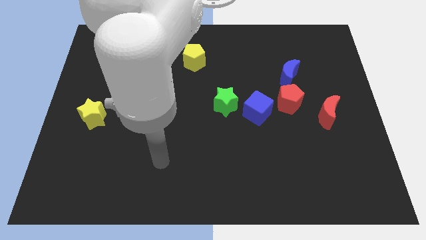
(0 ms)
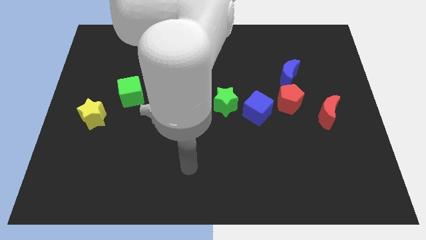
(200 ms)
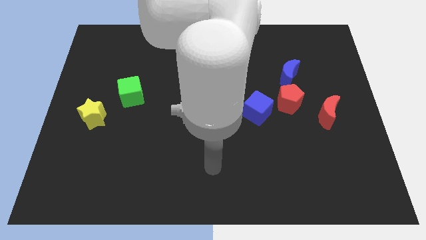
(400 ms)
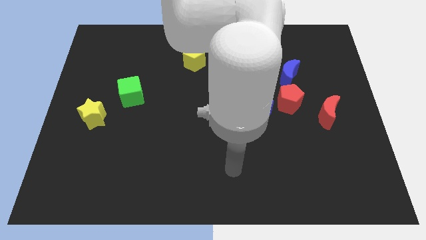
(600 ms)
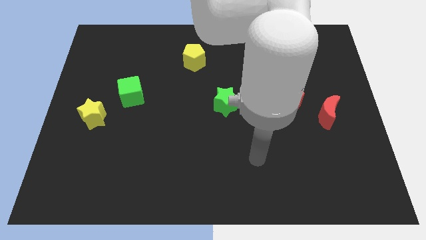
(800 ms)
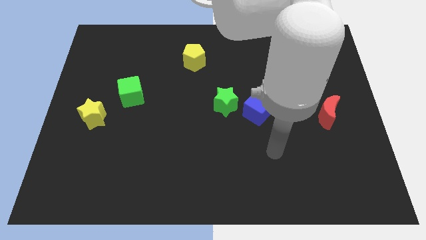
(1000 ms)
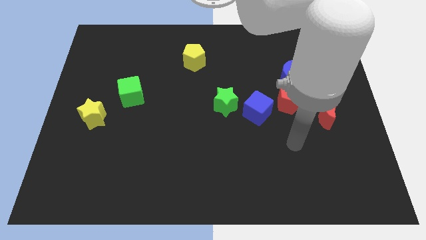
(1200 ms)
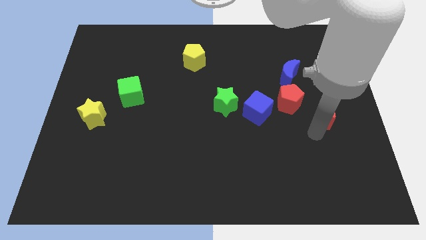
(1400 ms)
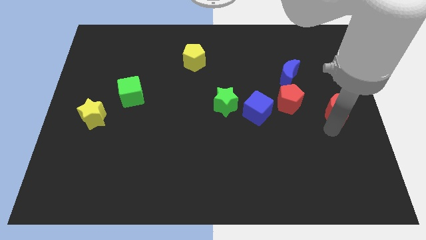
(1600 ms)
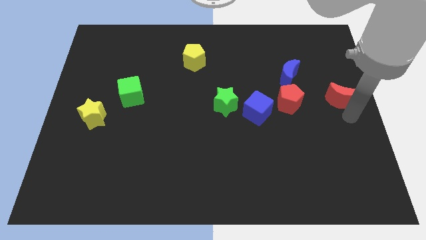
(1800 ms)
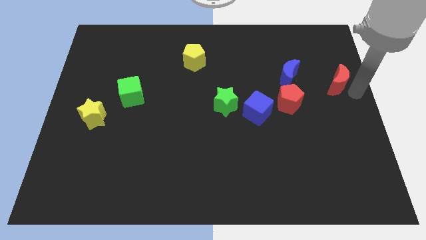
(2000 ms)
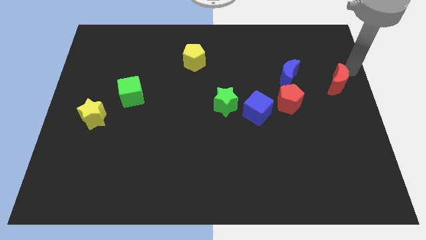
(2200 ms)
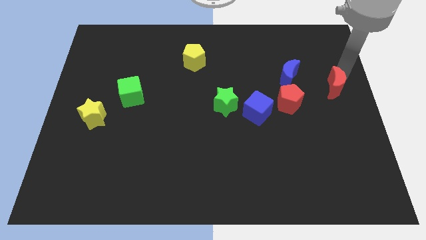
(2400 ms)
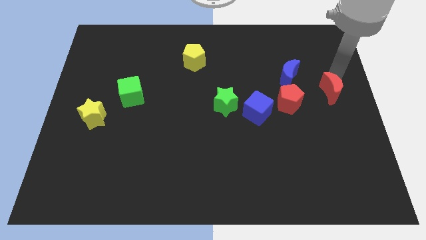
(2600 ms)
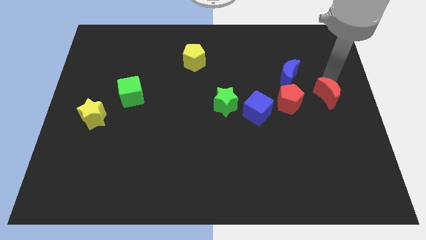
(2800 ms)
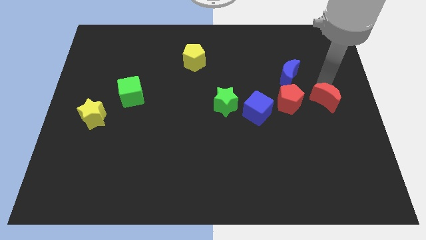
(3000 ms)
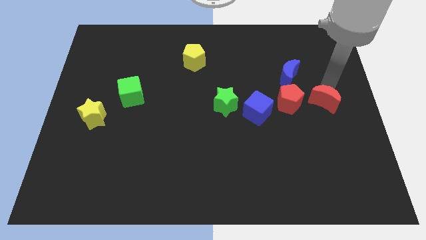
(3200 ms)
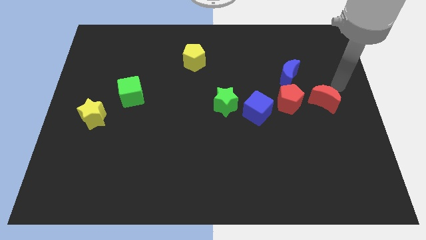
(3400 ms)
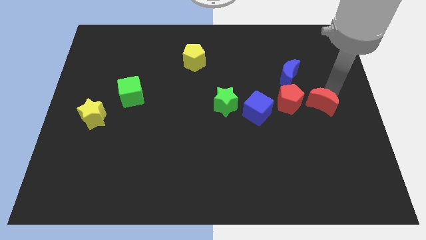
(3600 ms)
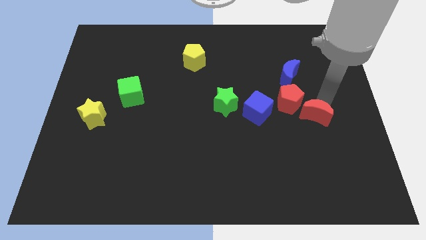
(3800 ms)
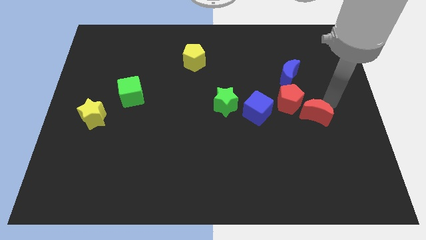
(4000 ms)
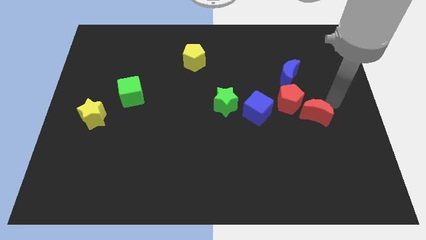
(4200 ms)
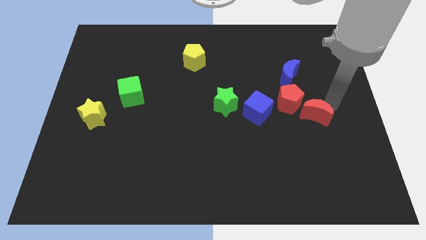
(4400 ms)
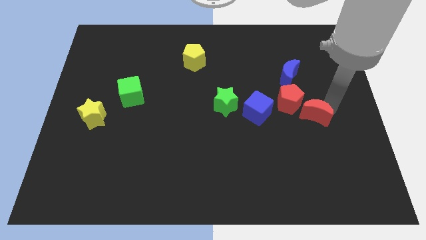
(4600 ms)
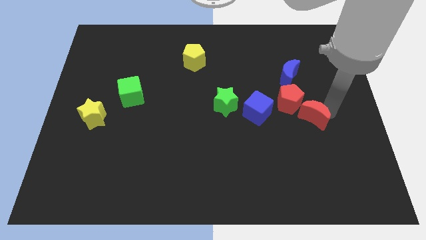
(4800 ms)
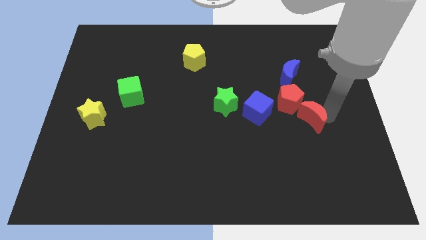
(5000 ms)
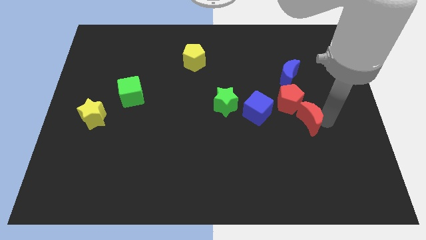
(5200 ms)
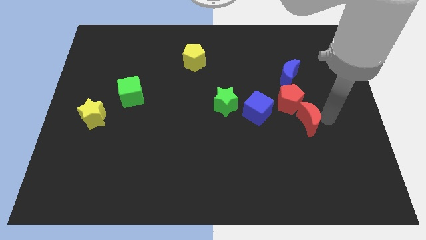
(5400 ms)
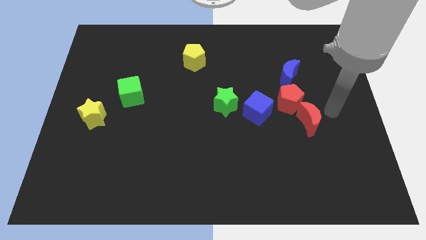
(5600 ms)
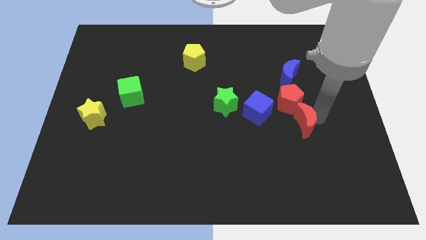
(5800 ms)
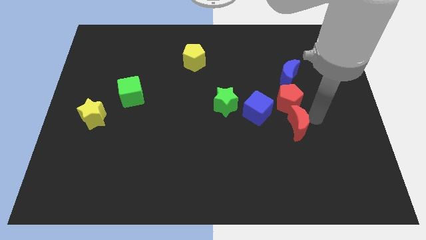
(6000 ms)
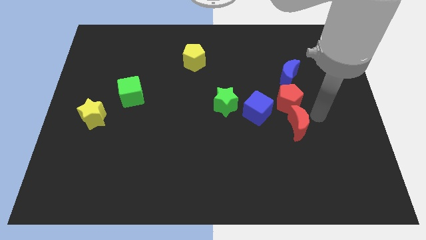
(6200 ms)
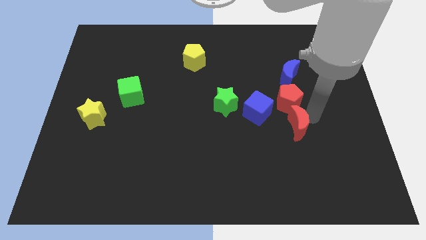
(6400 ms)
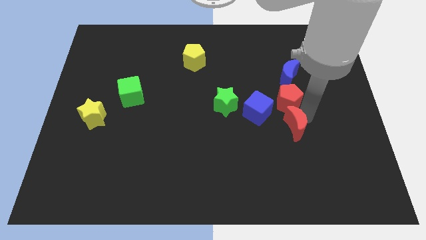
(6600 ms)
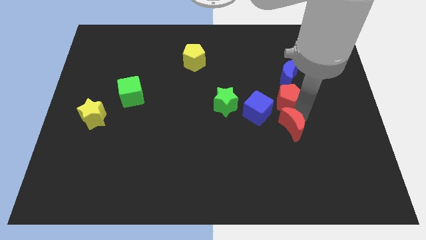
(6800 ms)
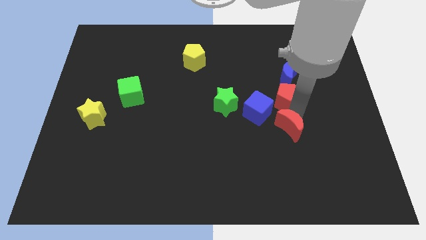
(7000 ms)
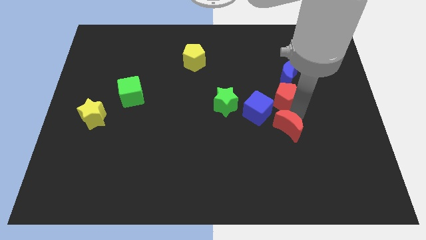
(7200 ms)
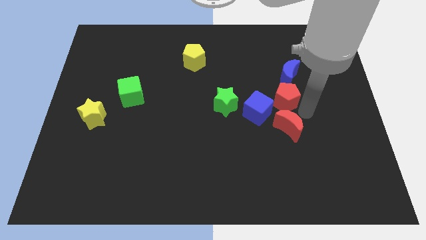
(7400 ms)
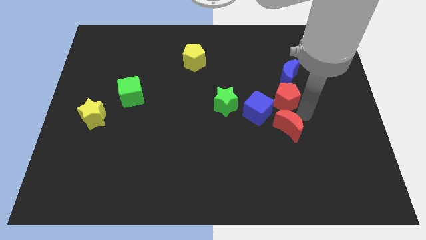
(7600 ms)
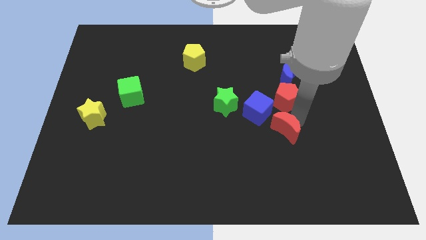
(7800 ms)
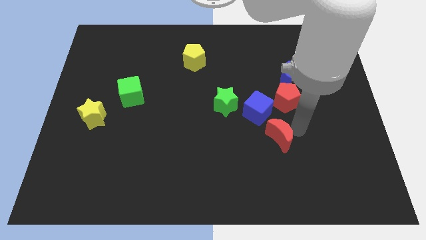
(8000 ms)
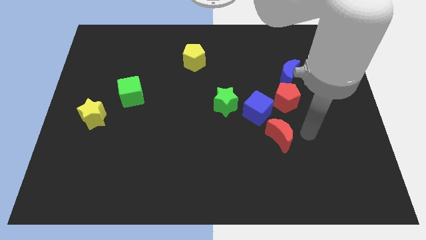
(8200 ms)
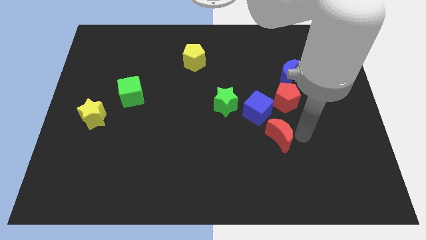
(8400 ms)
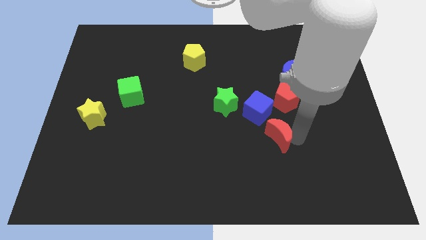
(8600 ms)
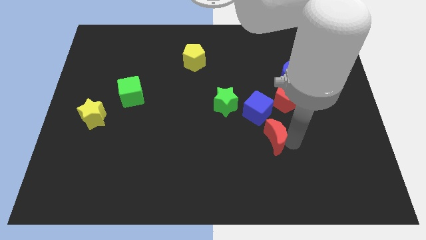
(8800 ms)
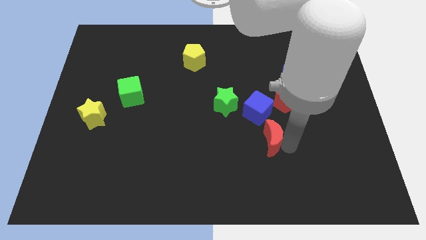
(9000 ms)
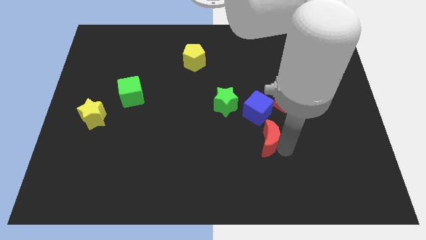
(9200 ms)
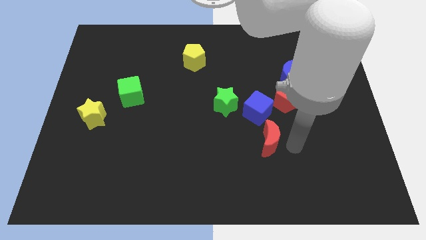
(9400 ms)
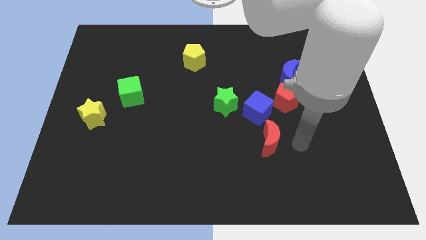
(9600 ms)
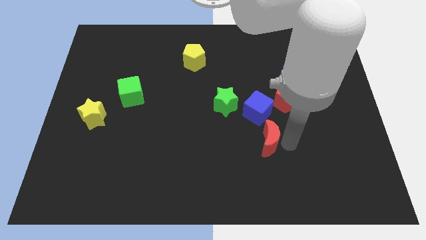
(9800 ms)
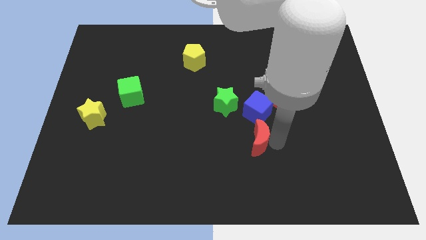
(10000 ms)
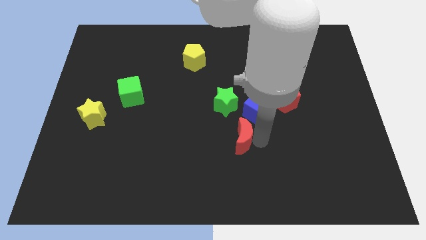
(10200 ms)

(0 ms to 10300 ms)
slide the red moon below the green star

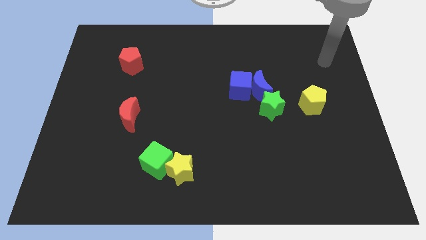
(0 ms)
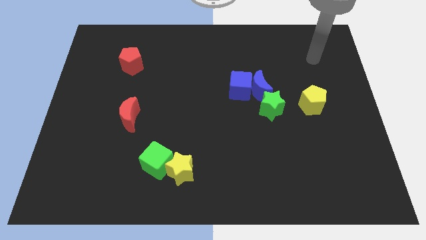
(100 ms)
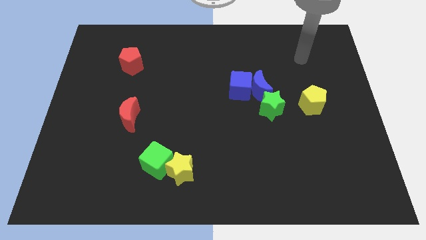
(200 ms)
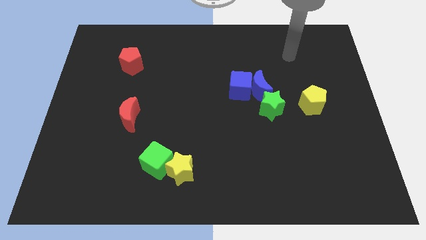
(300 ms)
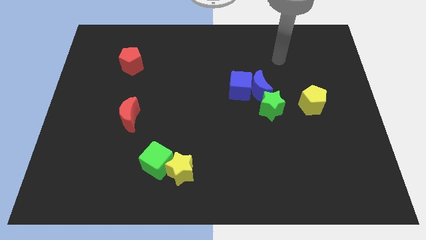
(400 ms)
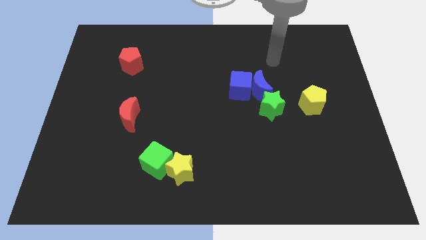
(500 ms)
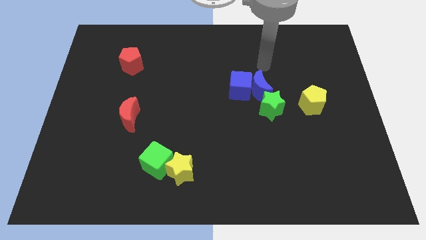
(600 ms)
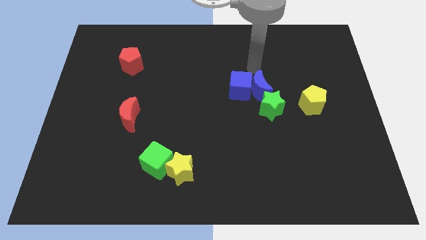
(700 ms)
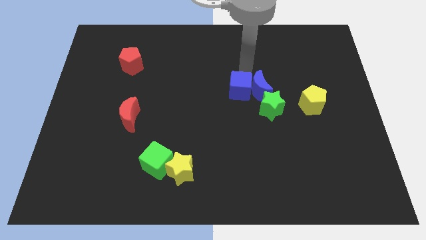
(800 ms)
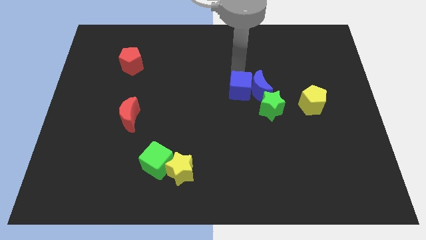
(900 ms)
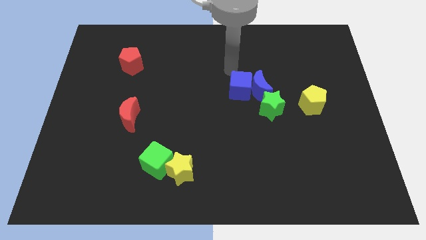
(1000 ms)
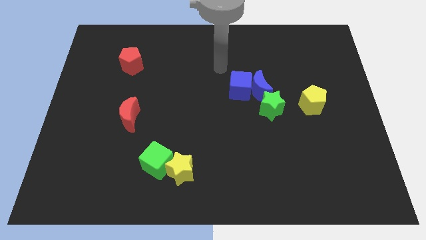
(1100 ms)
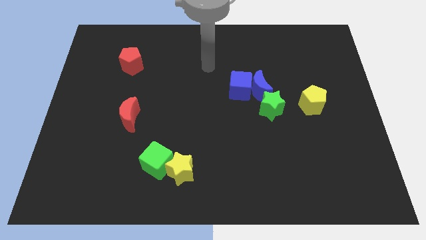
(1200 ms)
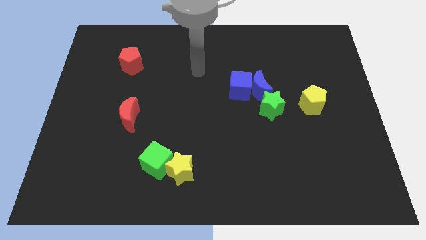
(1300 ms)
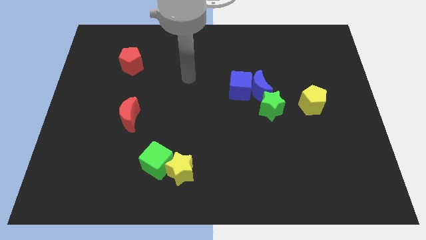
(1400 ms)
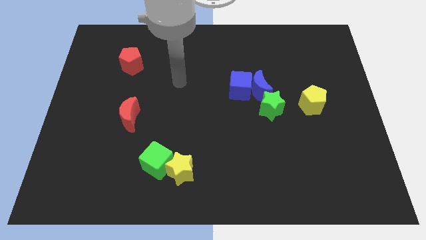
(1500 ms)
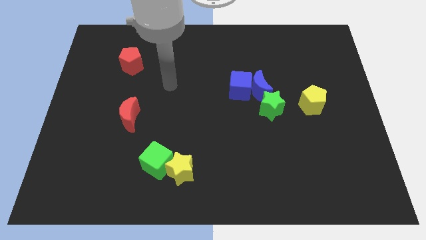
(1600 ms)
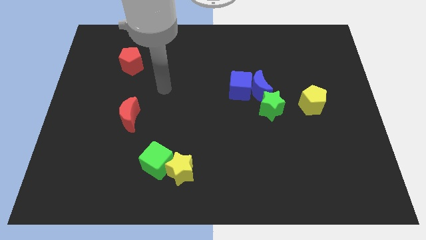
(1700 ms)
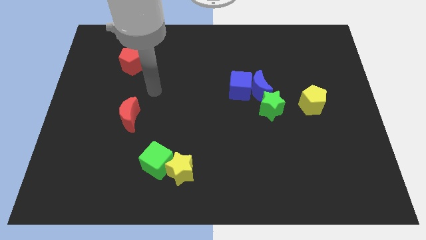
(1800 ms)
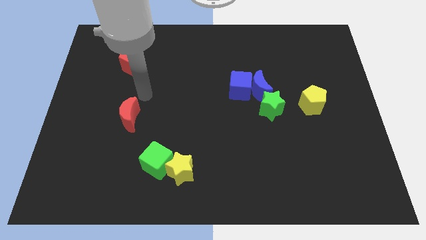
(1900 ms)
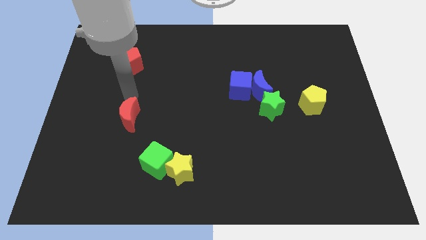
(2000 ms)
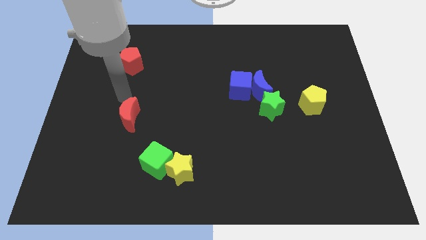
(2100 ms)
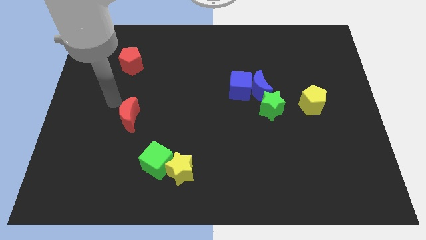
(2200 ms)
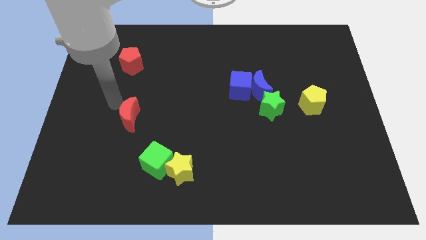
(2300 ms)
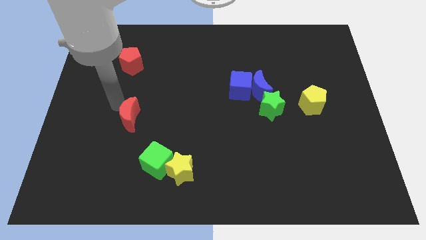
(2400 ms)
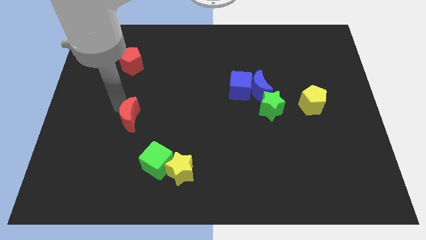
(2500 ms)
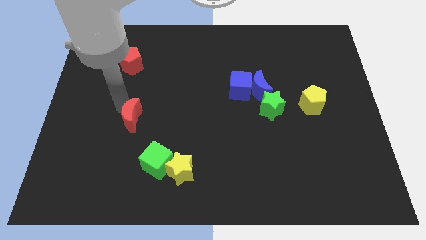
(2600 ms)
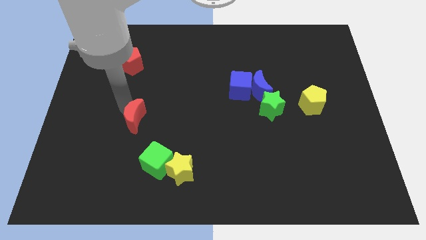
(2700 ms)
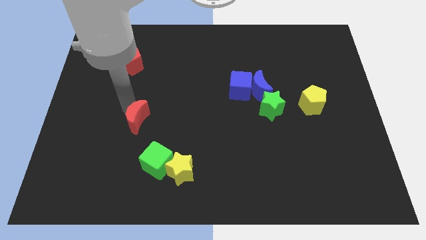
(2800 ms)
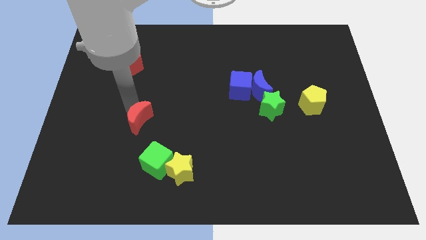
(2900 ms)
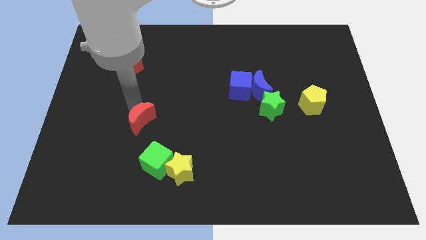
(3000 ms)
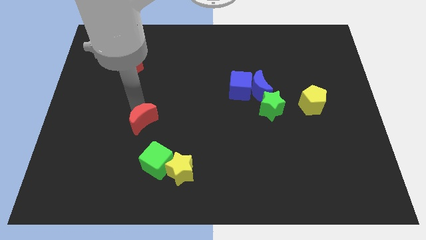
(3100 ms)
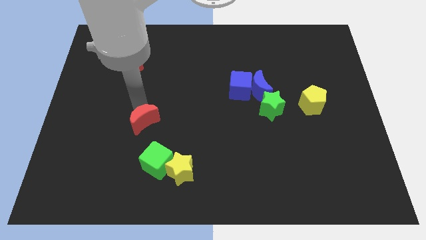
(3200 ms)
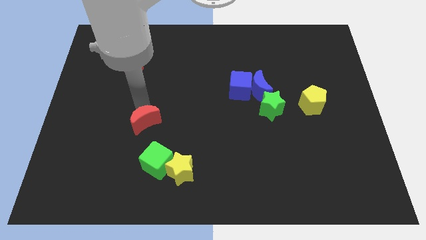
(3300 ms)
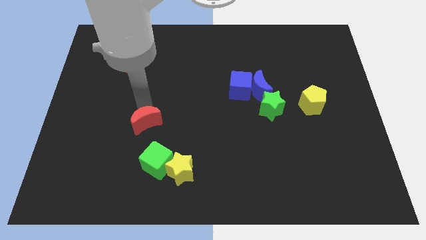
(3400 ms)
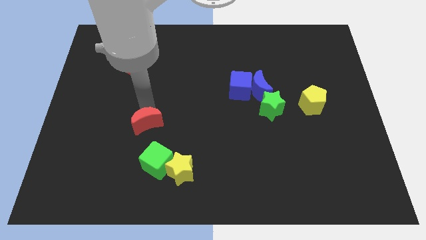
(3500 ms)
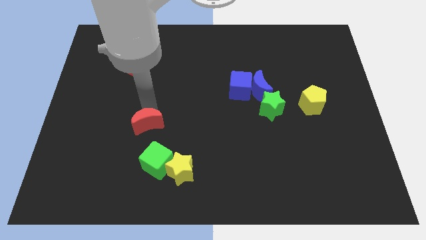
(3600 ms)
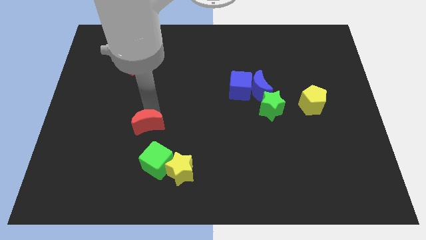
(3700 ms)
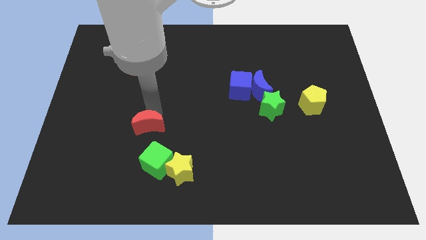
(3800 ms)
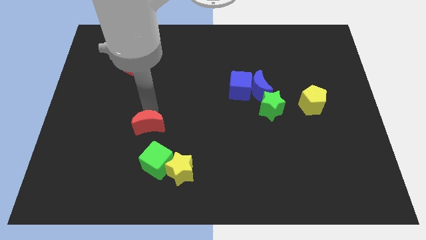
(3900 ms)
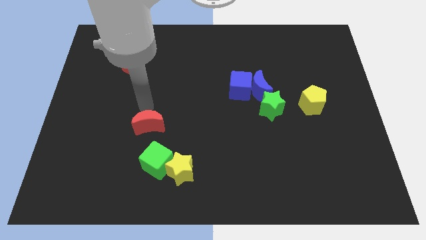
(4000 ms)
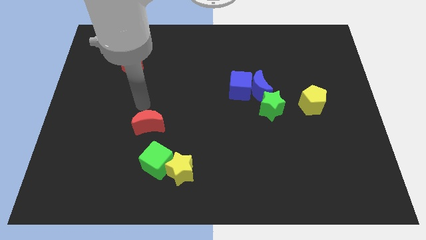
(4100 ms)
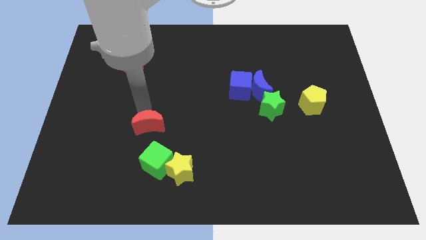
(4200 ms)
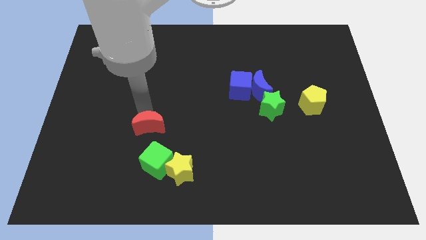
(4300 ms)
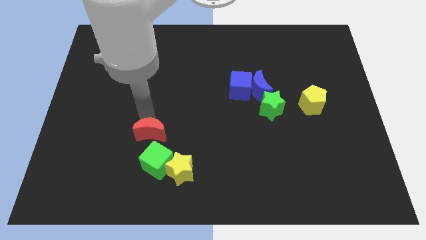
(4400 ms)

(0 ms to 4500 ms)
slide the red moon to the top left of the yellow star
